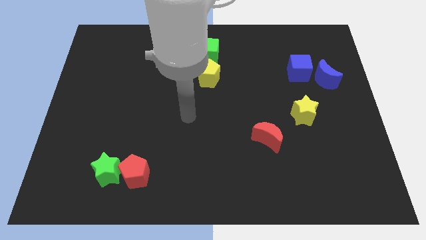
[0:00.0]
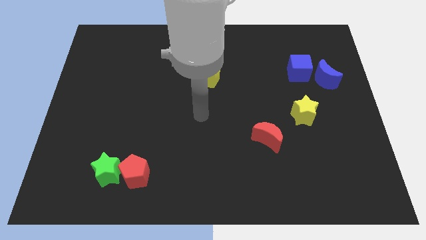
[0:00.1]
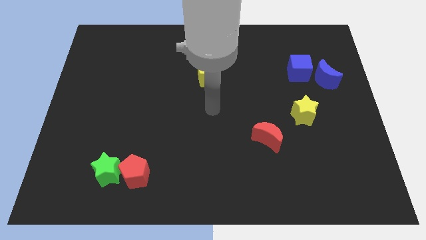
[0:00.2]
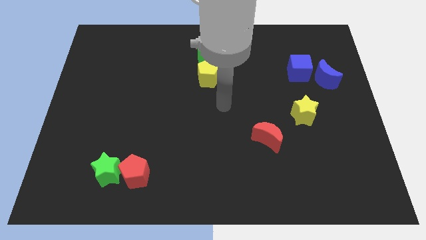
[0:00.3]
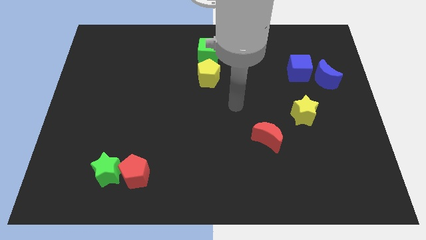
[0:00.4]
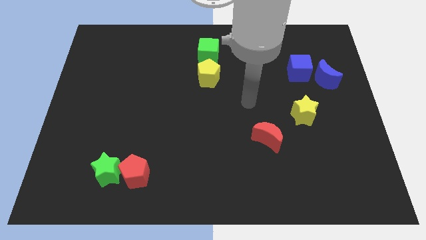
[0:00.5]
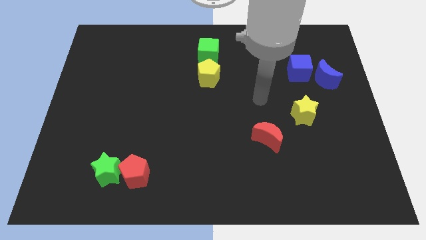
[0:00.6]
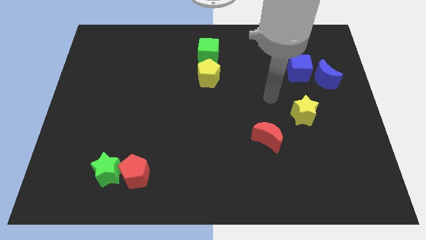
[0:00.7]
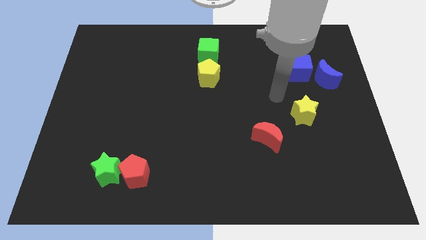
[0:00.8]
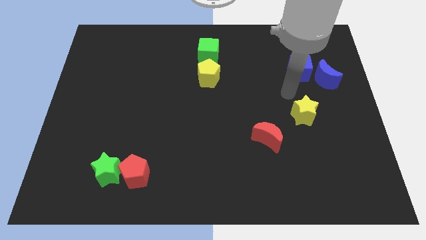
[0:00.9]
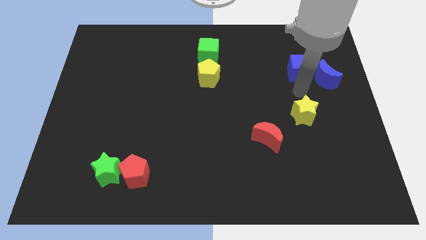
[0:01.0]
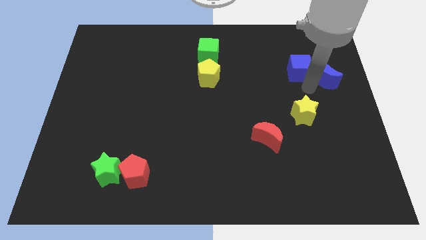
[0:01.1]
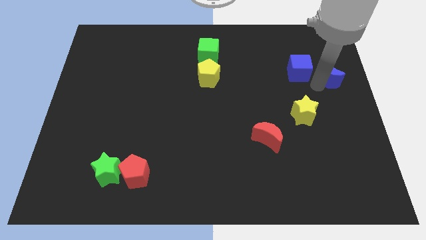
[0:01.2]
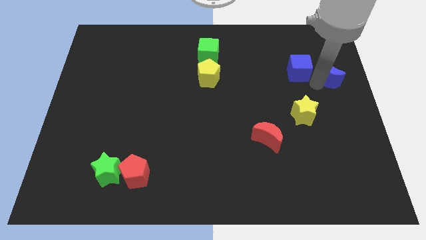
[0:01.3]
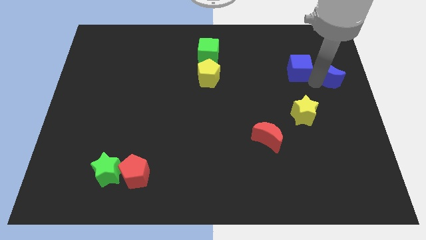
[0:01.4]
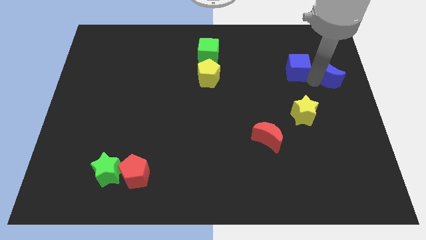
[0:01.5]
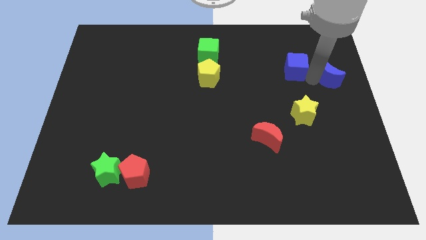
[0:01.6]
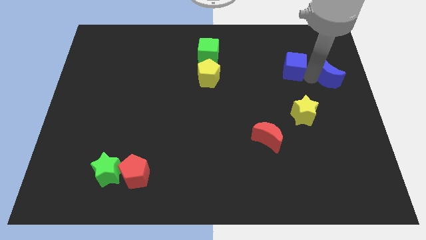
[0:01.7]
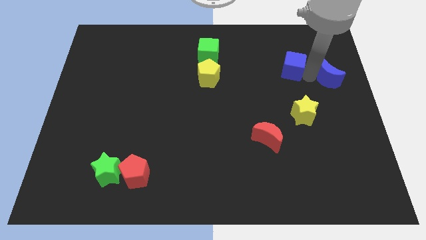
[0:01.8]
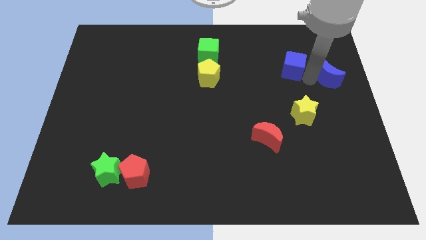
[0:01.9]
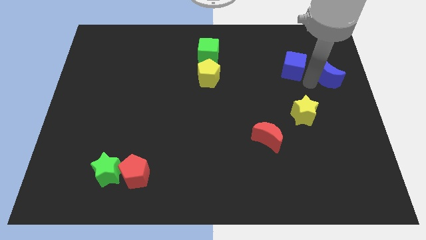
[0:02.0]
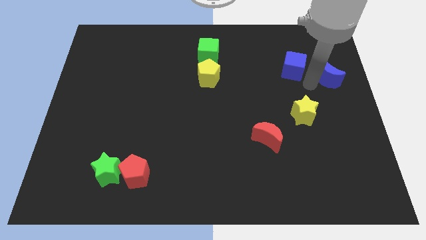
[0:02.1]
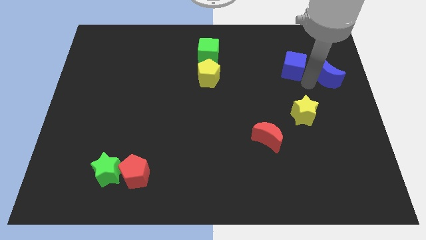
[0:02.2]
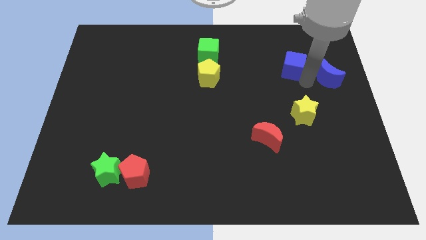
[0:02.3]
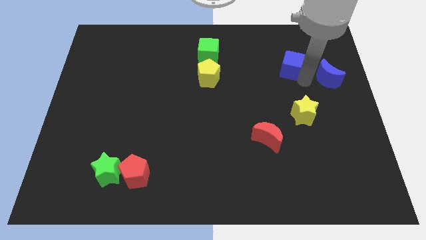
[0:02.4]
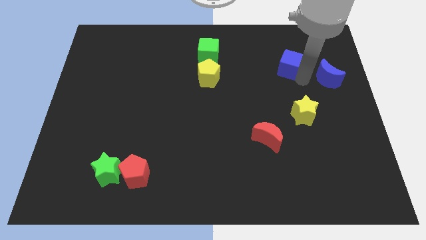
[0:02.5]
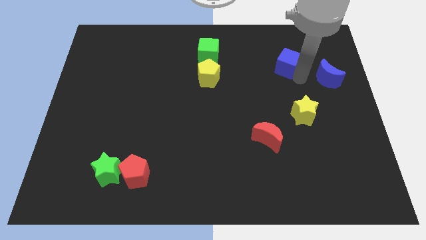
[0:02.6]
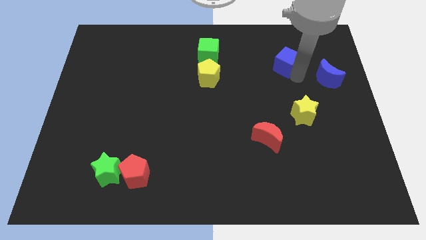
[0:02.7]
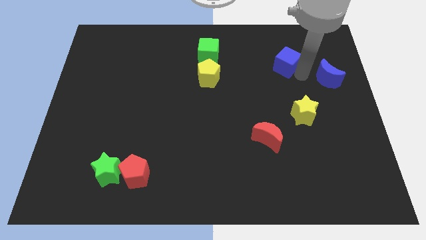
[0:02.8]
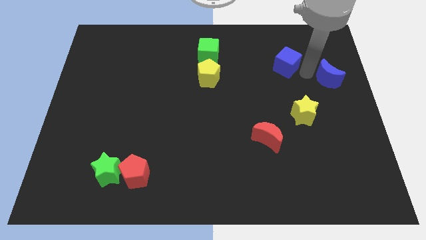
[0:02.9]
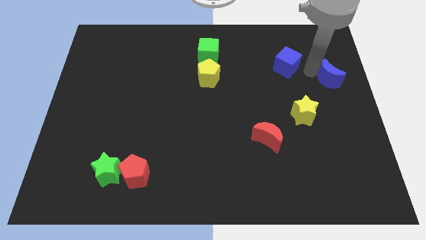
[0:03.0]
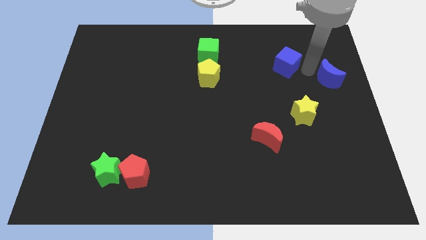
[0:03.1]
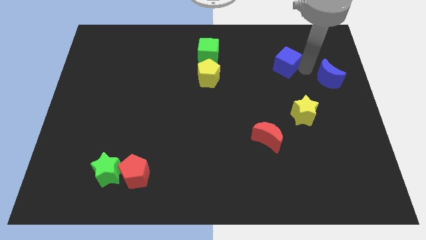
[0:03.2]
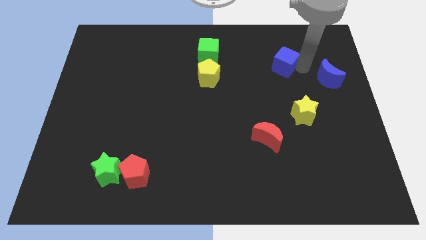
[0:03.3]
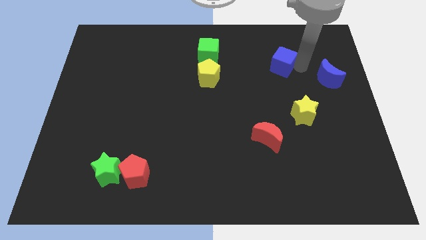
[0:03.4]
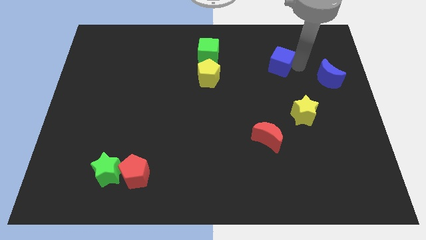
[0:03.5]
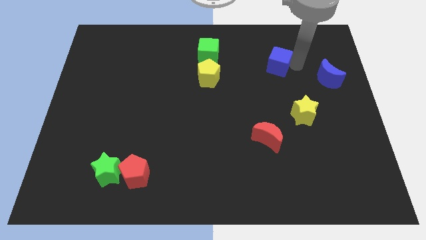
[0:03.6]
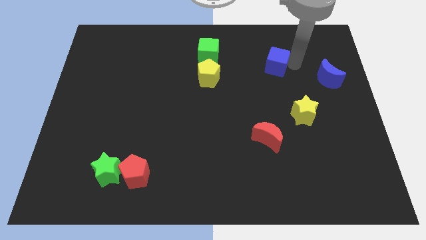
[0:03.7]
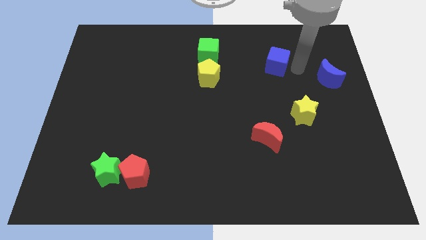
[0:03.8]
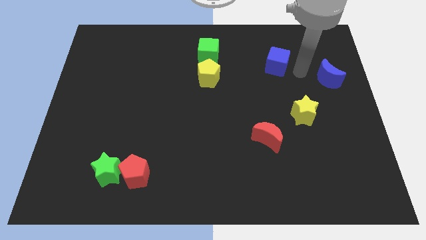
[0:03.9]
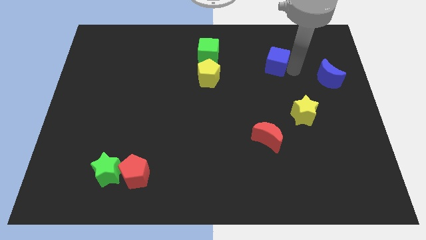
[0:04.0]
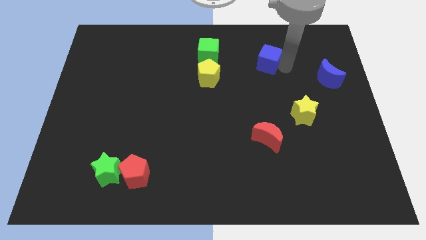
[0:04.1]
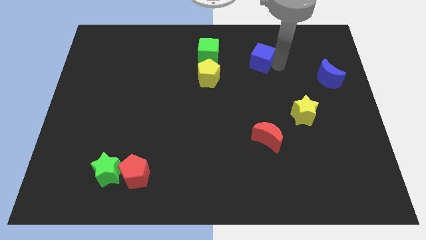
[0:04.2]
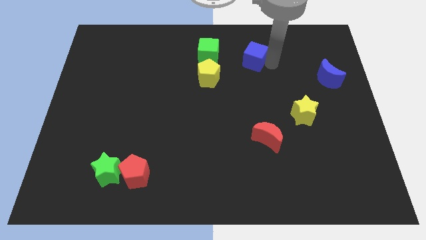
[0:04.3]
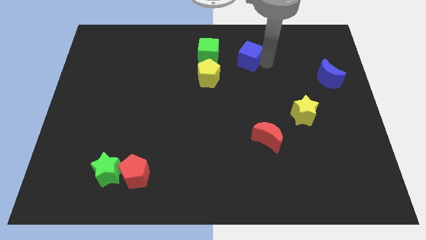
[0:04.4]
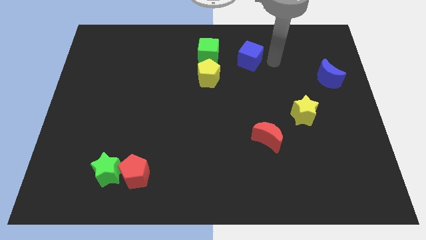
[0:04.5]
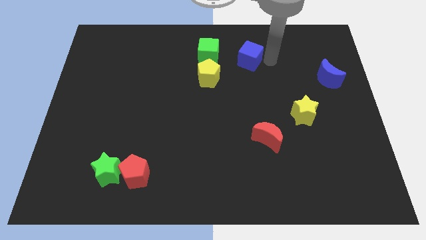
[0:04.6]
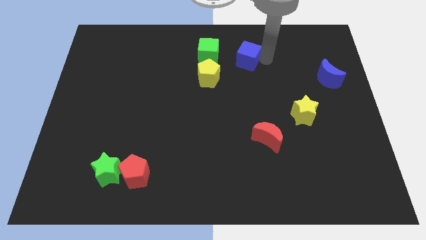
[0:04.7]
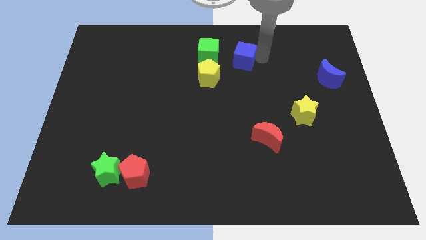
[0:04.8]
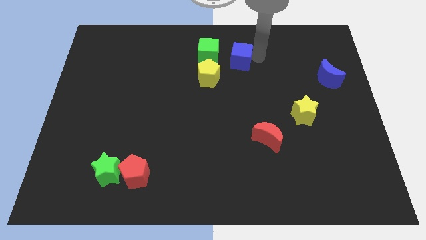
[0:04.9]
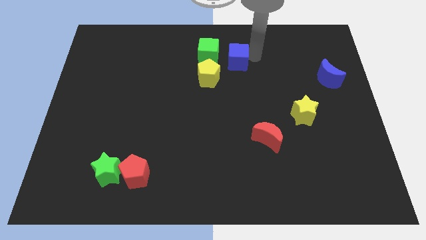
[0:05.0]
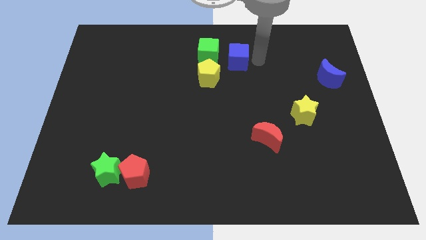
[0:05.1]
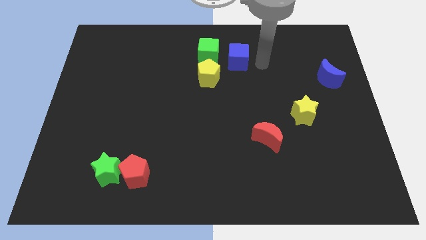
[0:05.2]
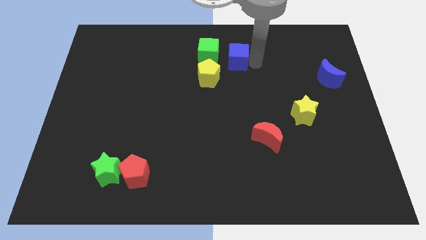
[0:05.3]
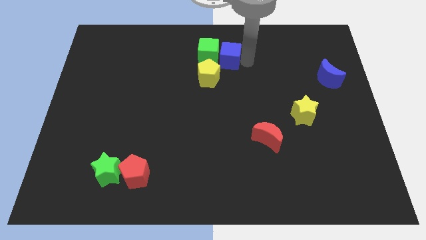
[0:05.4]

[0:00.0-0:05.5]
move the blue cube to the green cube
